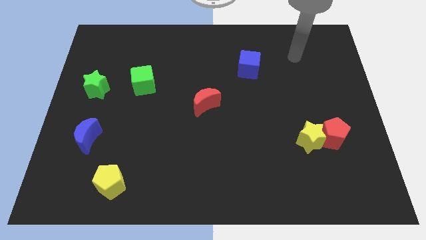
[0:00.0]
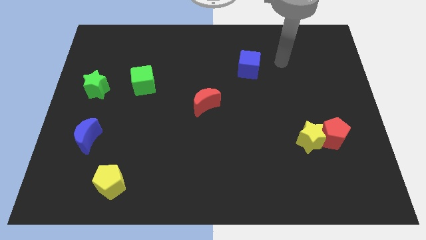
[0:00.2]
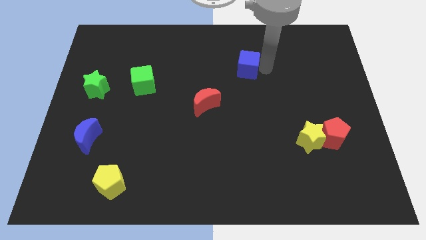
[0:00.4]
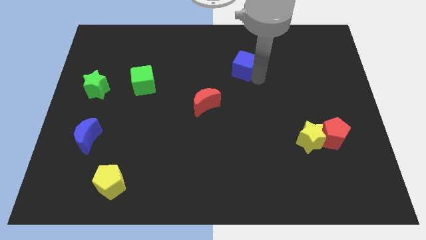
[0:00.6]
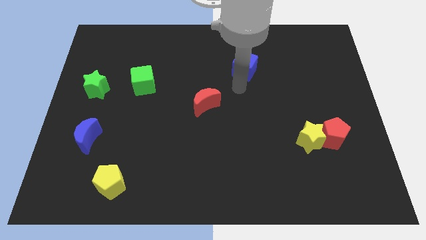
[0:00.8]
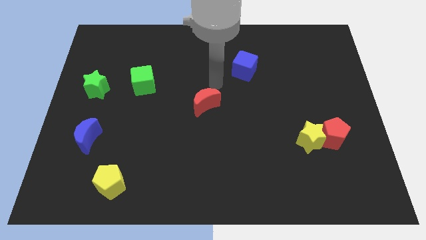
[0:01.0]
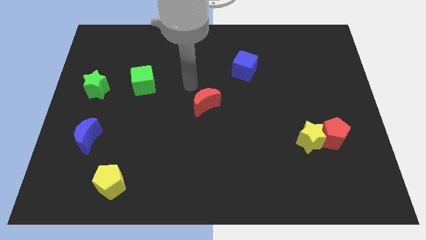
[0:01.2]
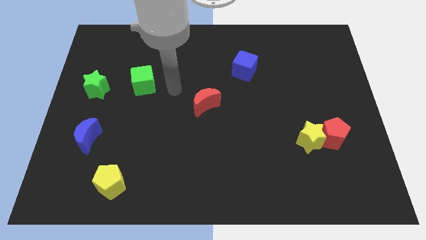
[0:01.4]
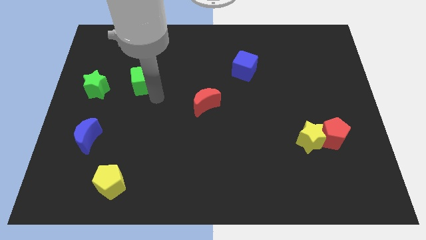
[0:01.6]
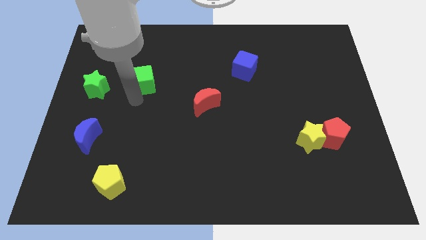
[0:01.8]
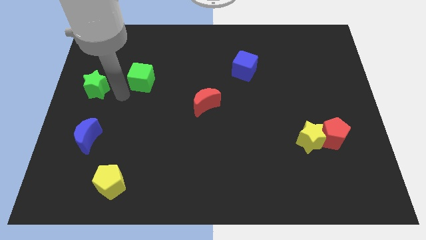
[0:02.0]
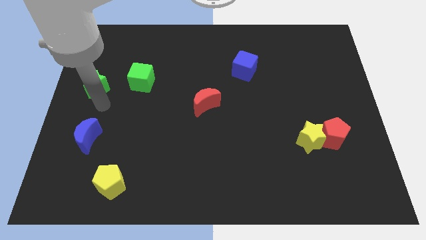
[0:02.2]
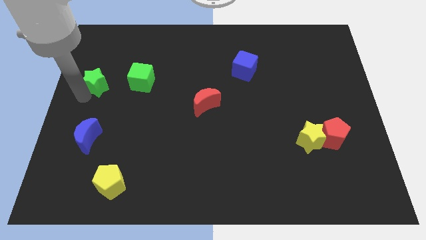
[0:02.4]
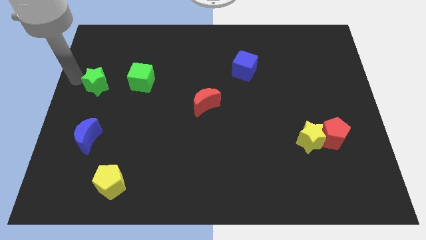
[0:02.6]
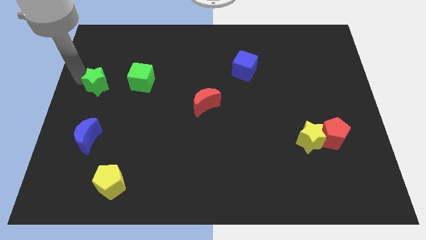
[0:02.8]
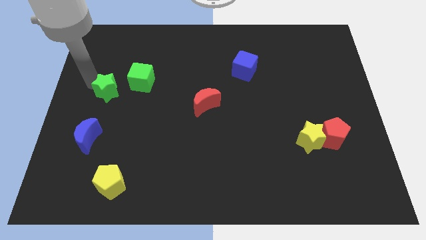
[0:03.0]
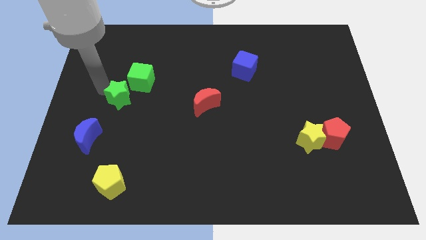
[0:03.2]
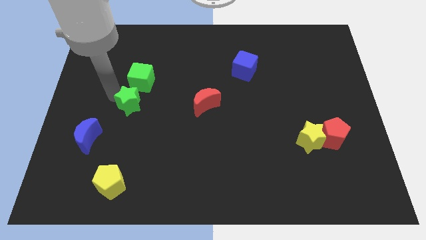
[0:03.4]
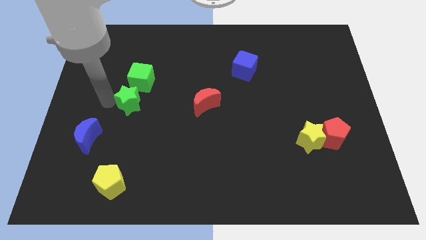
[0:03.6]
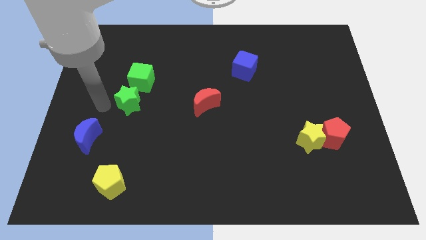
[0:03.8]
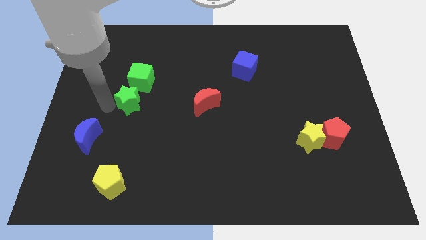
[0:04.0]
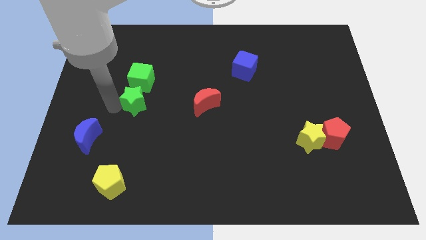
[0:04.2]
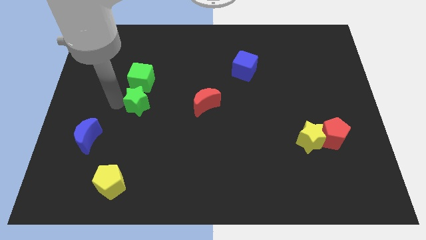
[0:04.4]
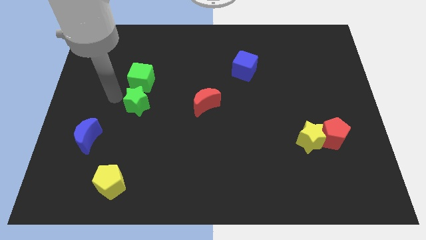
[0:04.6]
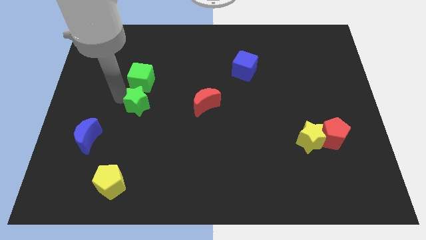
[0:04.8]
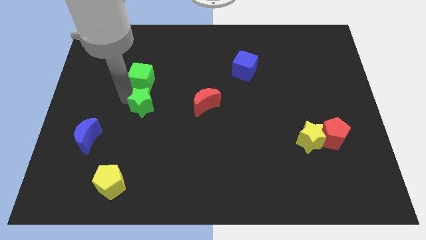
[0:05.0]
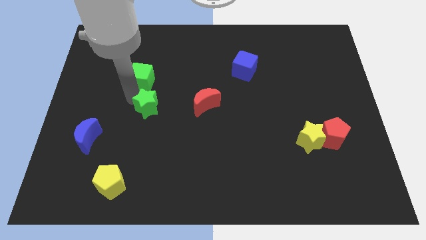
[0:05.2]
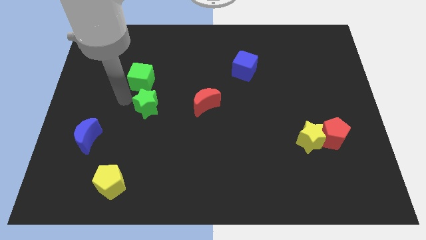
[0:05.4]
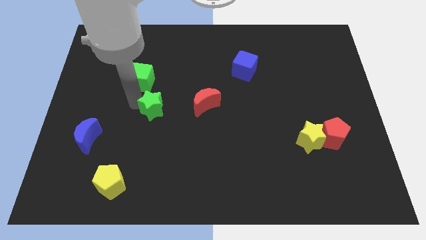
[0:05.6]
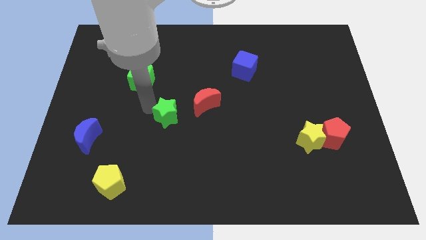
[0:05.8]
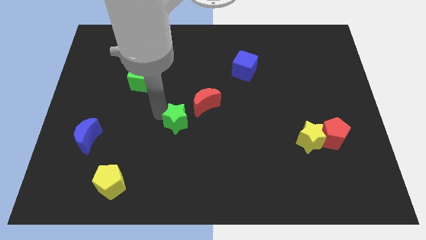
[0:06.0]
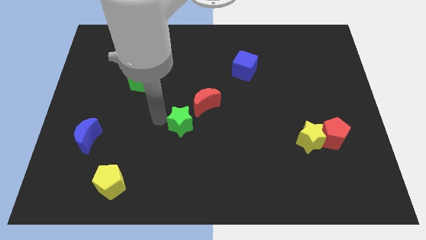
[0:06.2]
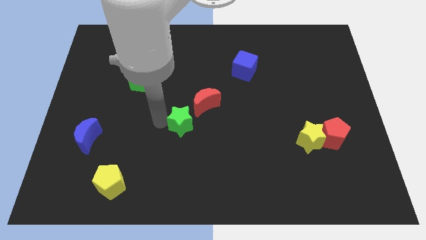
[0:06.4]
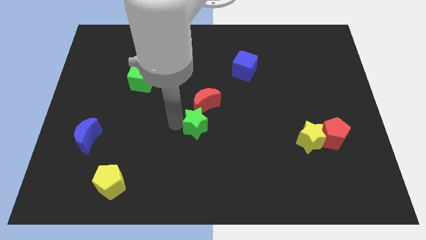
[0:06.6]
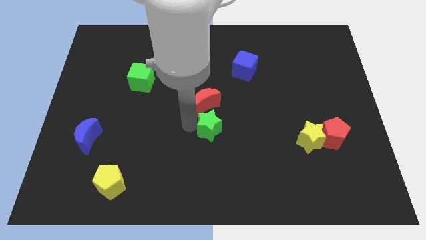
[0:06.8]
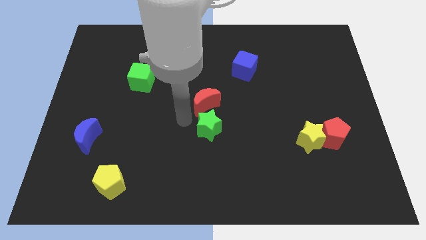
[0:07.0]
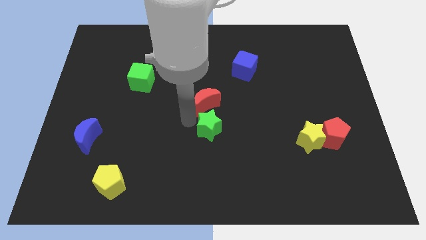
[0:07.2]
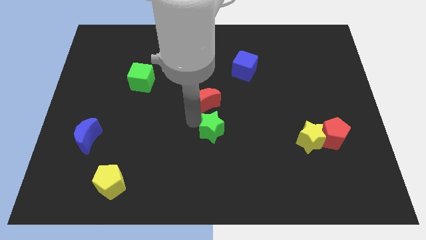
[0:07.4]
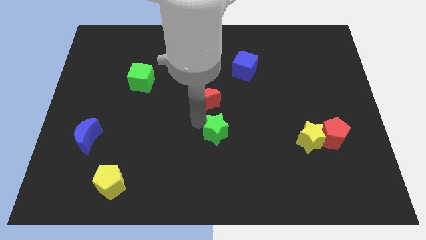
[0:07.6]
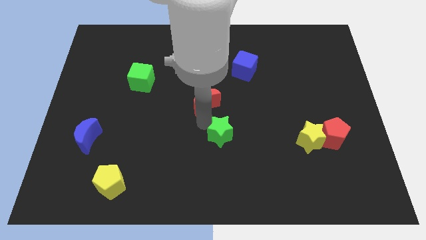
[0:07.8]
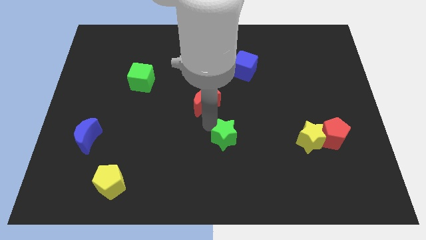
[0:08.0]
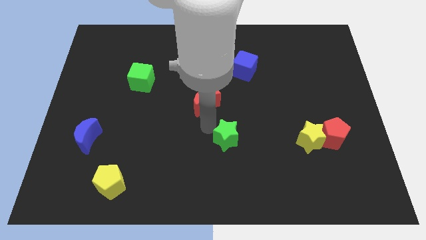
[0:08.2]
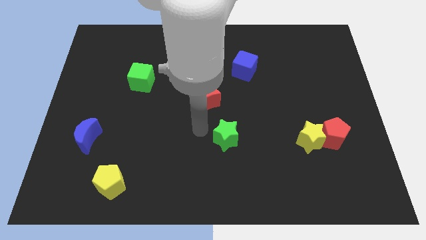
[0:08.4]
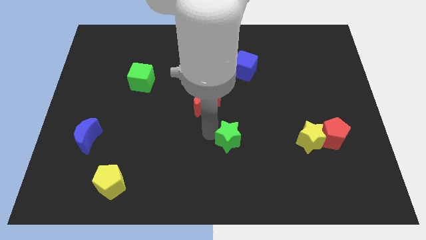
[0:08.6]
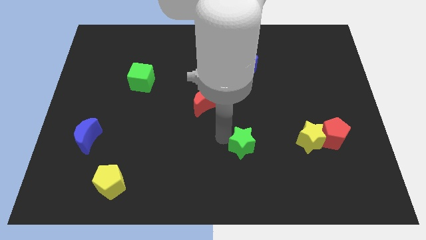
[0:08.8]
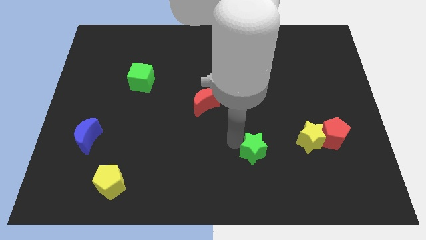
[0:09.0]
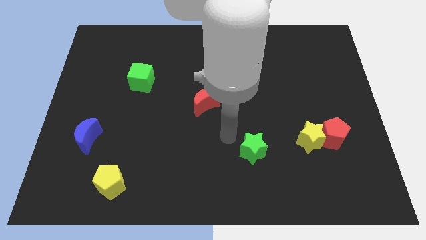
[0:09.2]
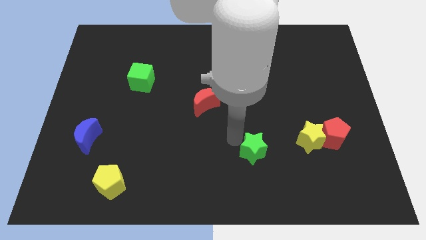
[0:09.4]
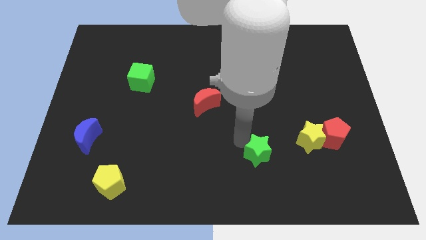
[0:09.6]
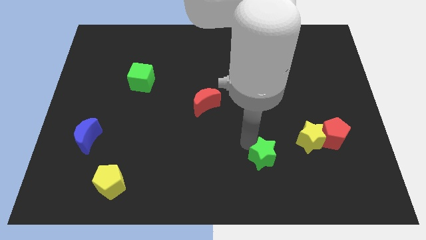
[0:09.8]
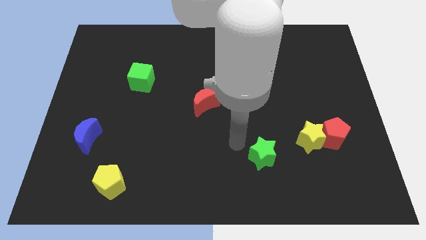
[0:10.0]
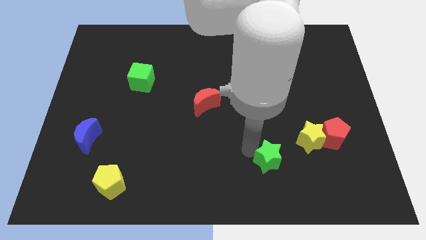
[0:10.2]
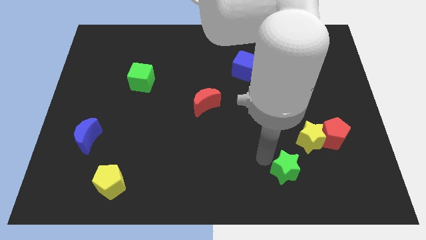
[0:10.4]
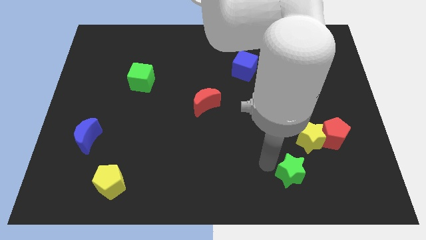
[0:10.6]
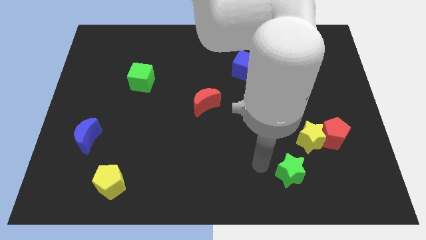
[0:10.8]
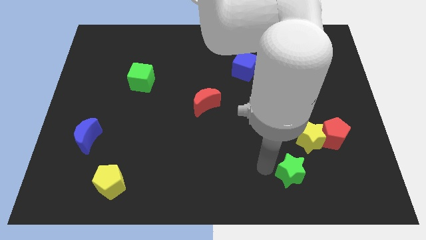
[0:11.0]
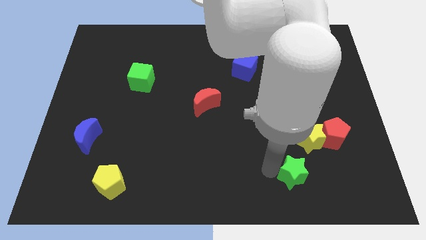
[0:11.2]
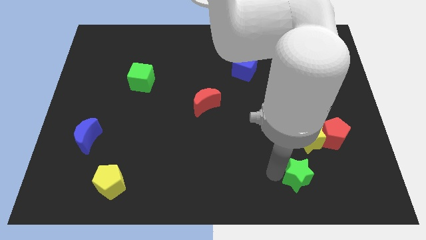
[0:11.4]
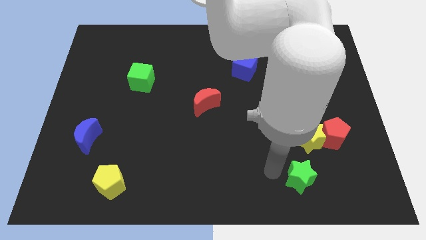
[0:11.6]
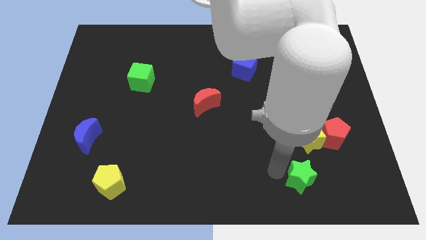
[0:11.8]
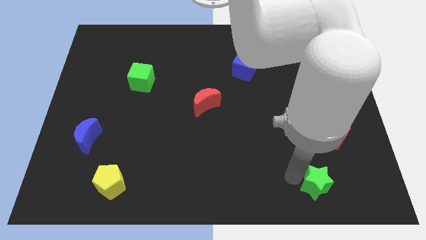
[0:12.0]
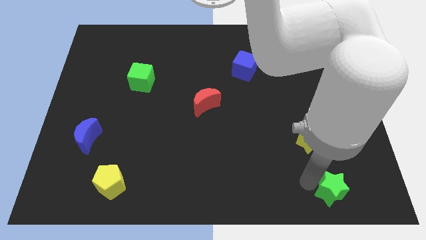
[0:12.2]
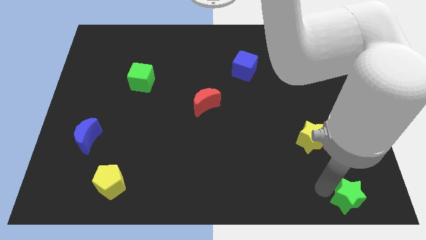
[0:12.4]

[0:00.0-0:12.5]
slide the green star to the lower right corner
